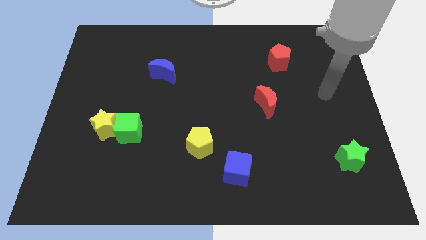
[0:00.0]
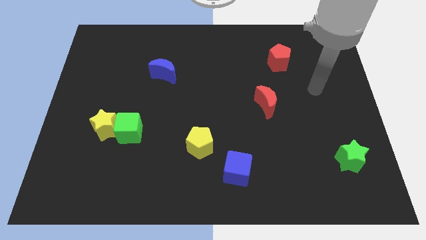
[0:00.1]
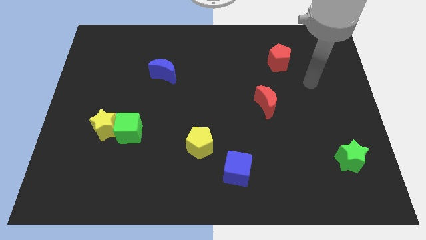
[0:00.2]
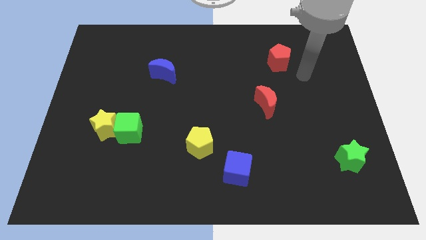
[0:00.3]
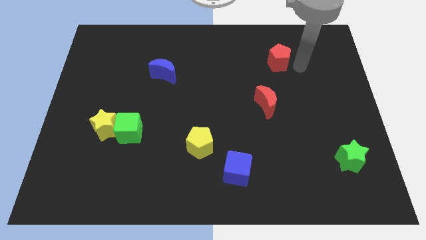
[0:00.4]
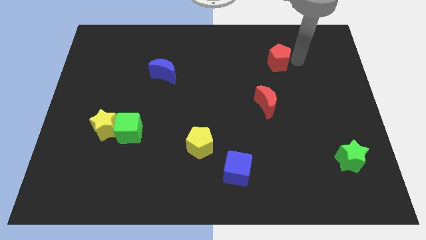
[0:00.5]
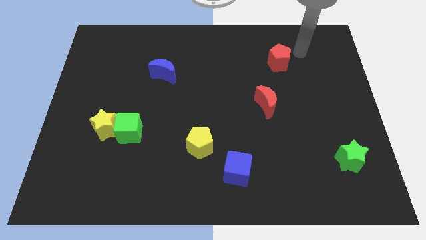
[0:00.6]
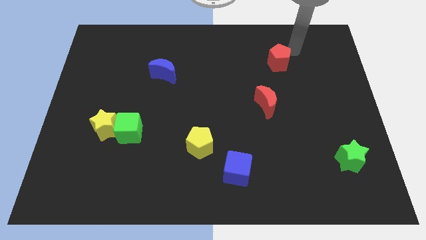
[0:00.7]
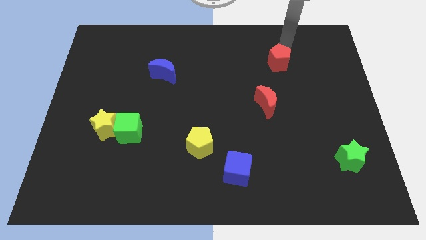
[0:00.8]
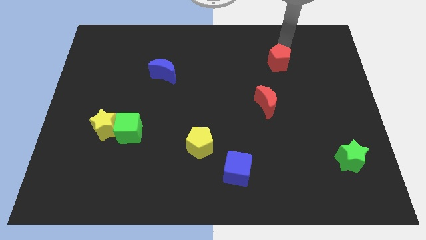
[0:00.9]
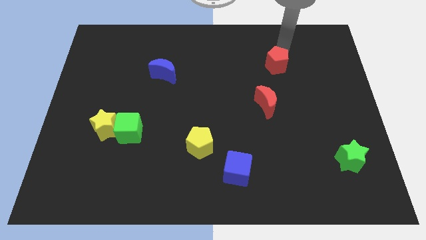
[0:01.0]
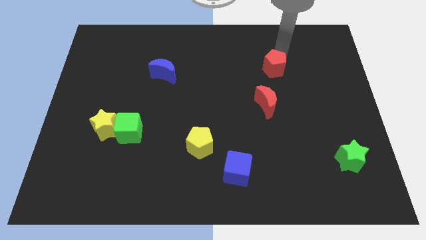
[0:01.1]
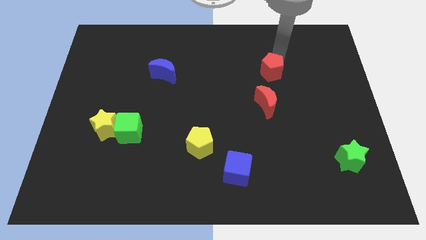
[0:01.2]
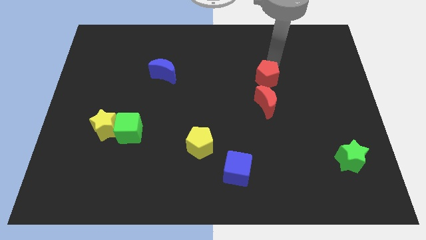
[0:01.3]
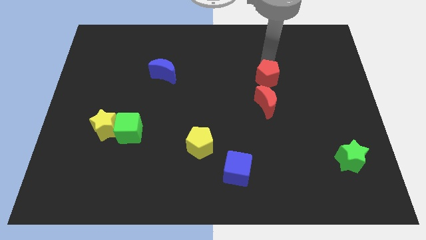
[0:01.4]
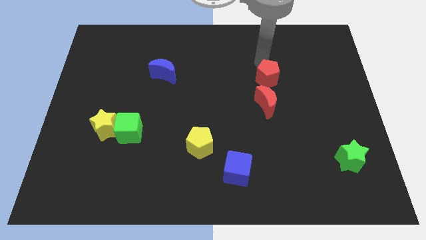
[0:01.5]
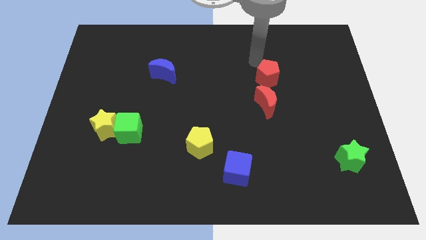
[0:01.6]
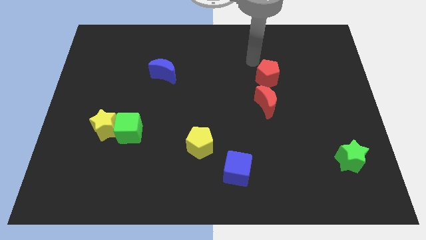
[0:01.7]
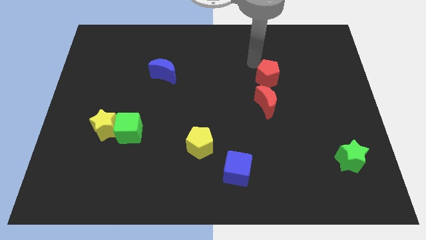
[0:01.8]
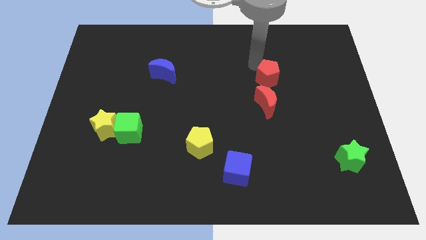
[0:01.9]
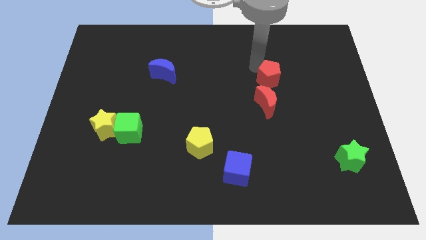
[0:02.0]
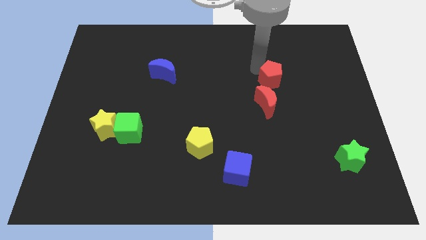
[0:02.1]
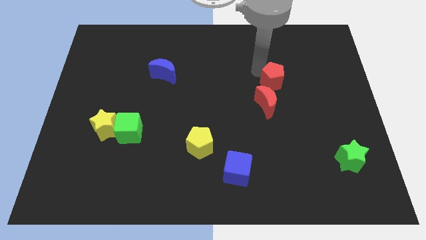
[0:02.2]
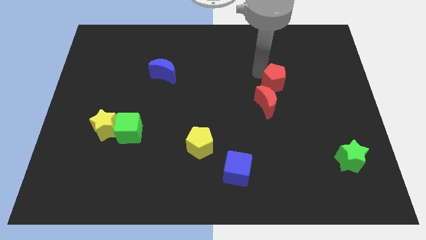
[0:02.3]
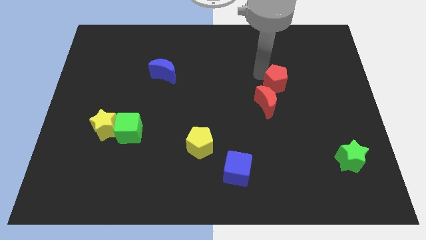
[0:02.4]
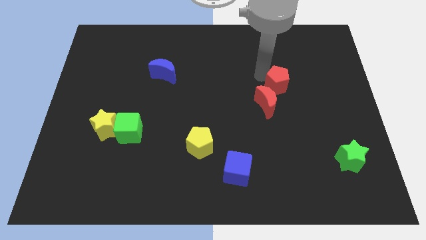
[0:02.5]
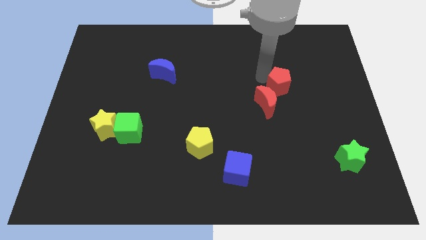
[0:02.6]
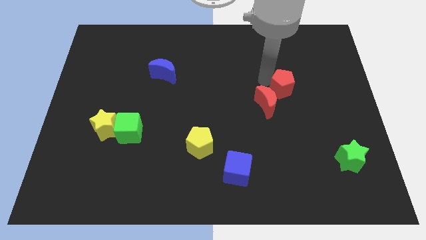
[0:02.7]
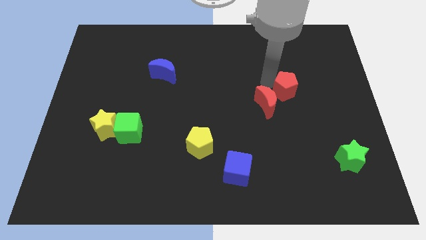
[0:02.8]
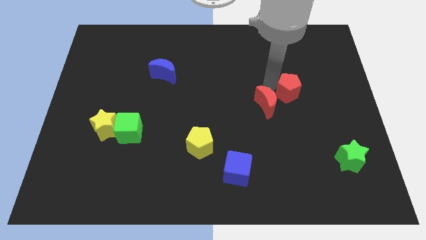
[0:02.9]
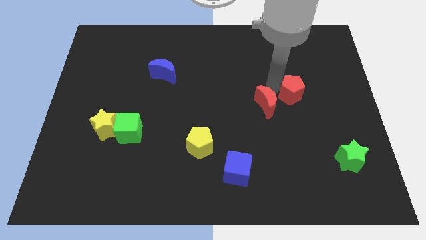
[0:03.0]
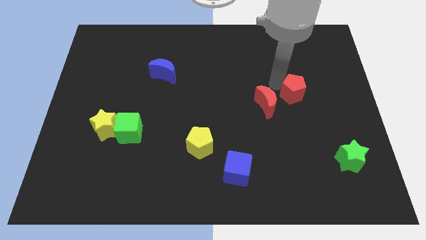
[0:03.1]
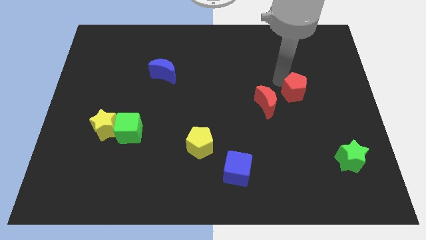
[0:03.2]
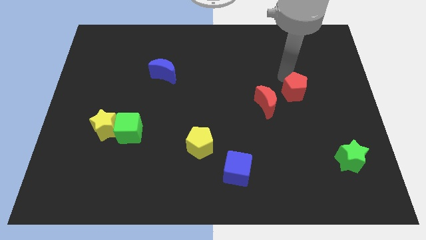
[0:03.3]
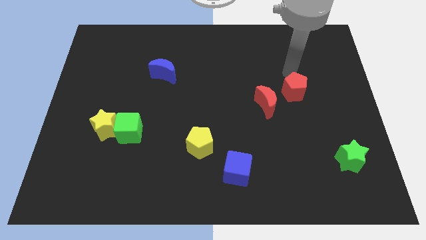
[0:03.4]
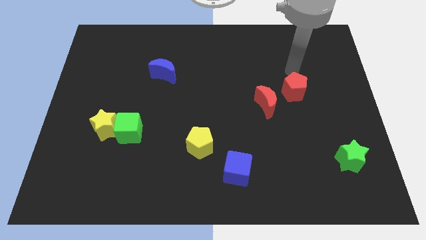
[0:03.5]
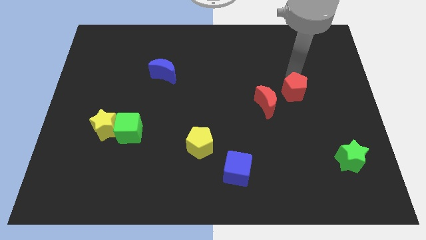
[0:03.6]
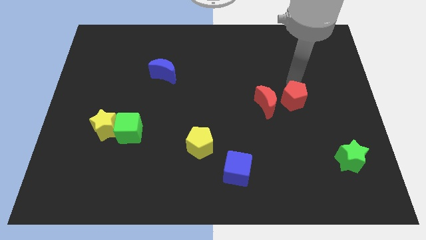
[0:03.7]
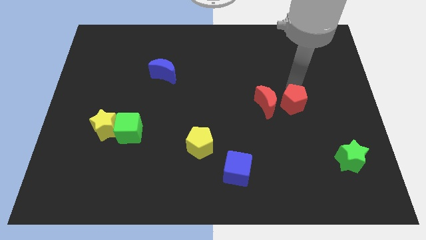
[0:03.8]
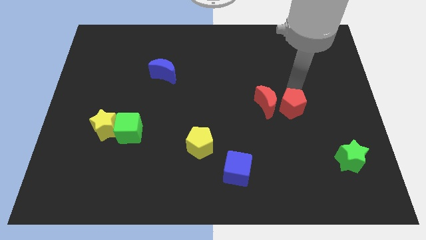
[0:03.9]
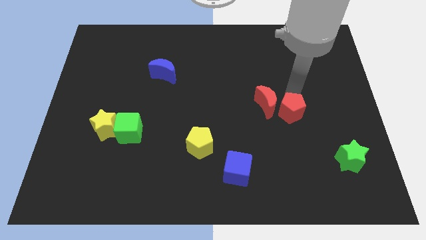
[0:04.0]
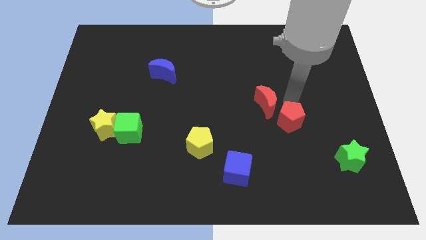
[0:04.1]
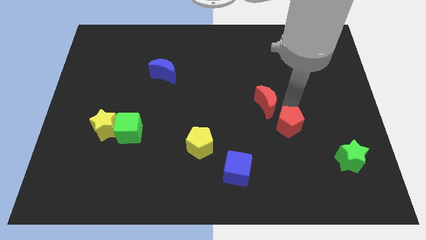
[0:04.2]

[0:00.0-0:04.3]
slide the red pentagon downwards

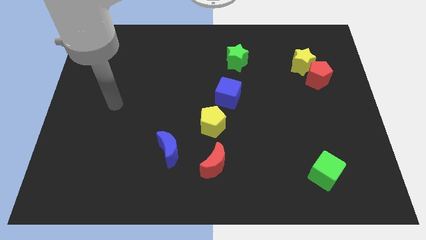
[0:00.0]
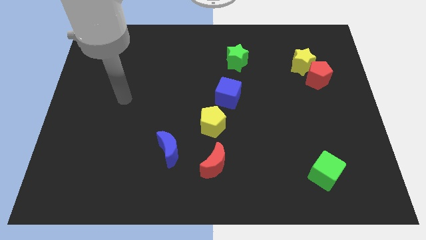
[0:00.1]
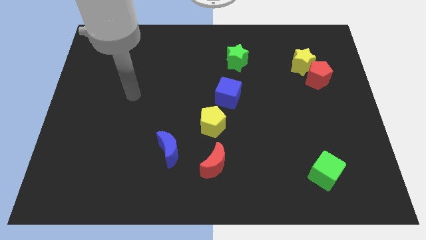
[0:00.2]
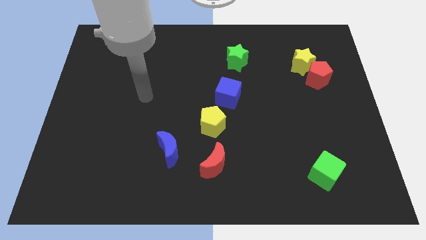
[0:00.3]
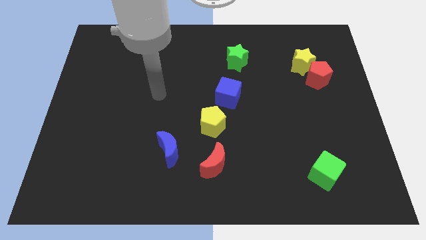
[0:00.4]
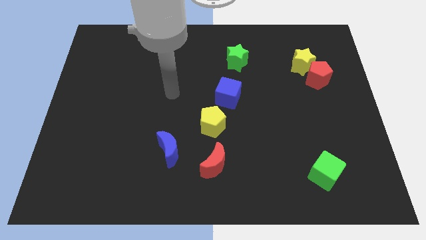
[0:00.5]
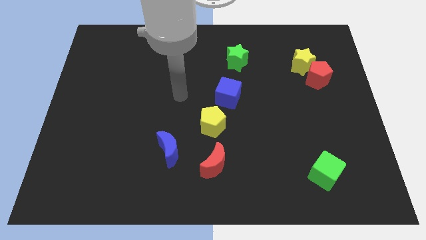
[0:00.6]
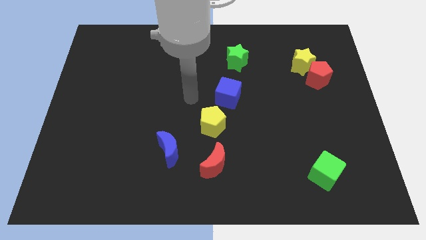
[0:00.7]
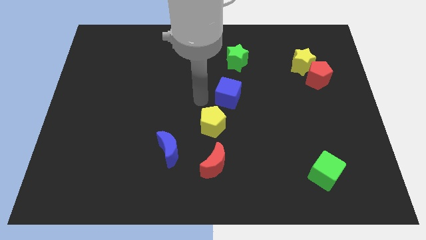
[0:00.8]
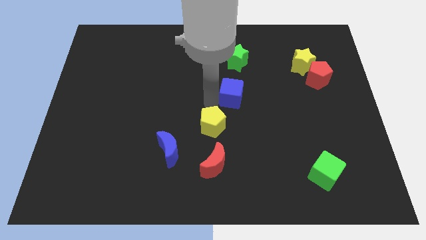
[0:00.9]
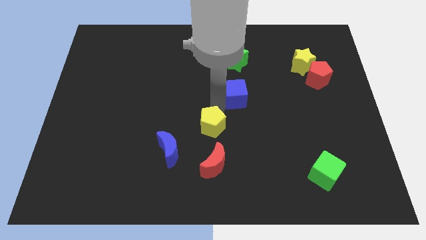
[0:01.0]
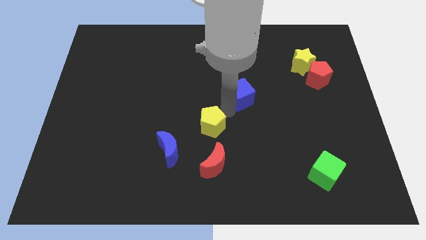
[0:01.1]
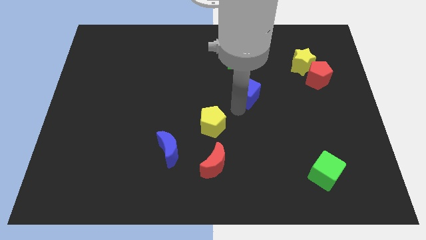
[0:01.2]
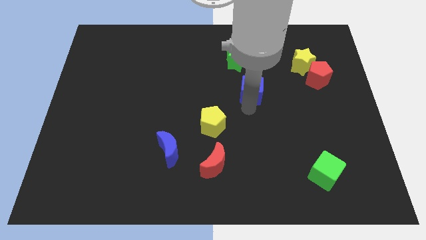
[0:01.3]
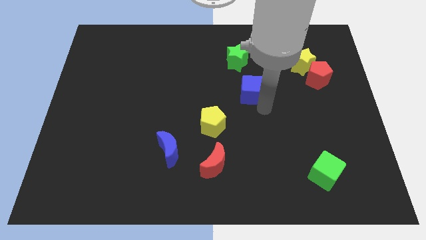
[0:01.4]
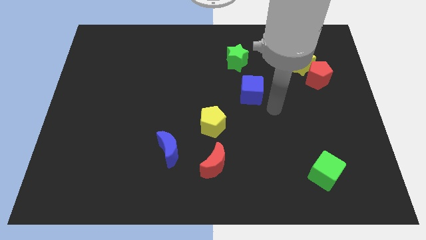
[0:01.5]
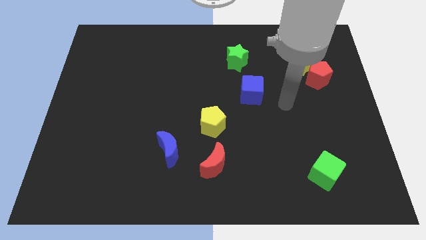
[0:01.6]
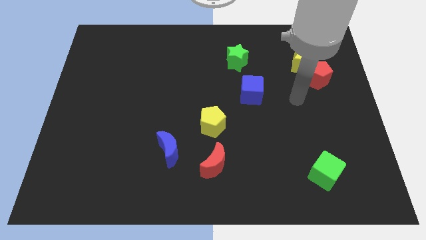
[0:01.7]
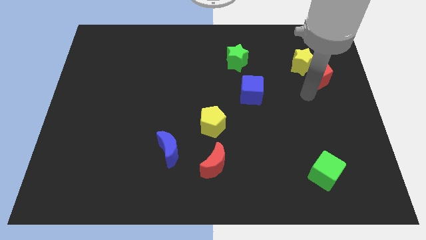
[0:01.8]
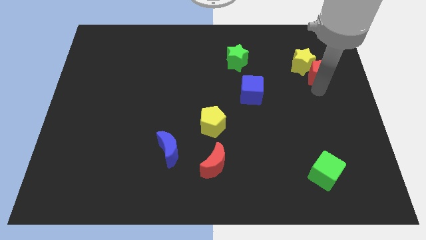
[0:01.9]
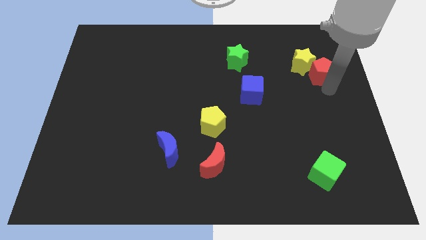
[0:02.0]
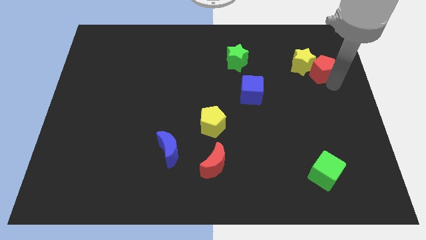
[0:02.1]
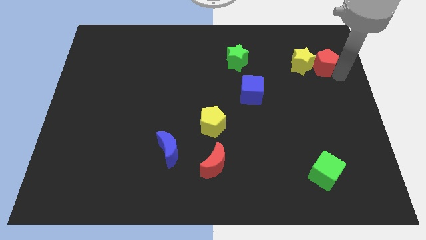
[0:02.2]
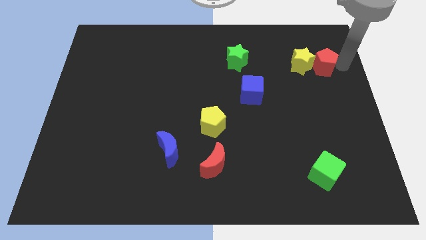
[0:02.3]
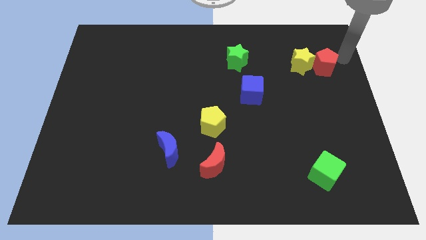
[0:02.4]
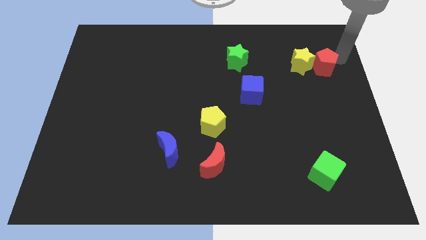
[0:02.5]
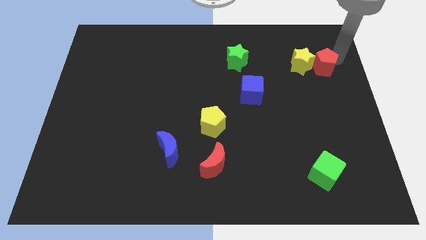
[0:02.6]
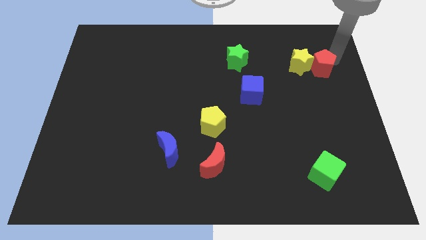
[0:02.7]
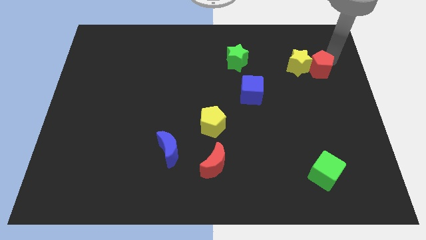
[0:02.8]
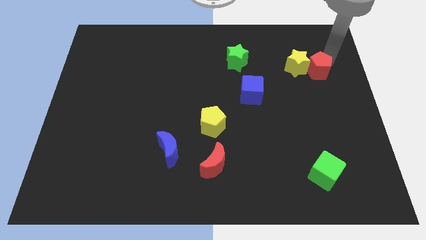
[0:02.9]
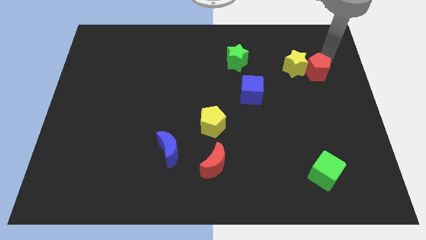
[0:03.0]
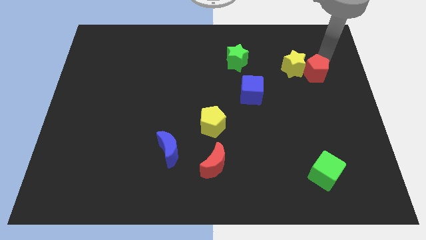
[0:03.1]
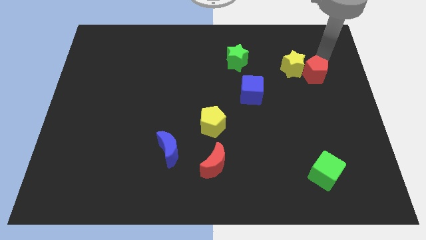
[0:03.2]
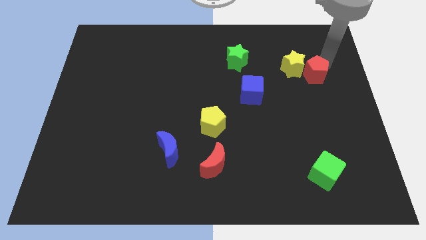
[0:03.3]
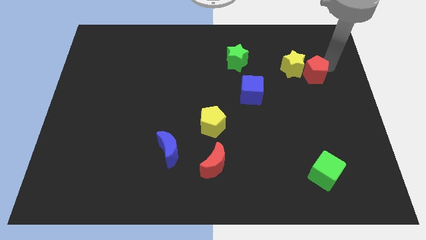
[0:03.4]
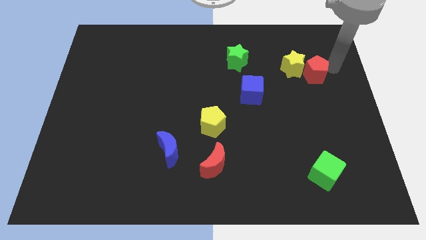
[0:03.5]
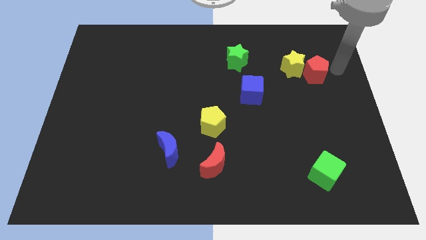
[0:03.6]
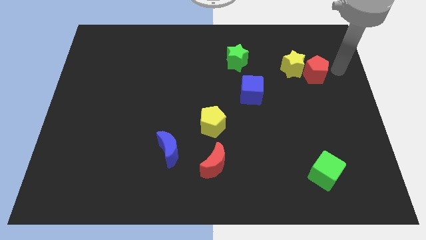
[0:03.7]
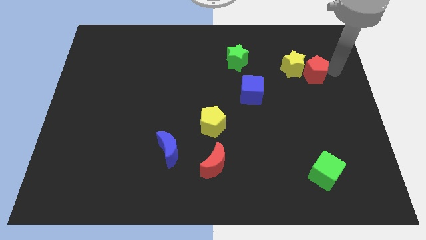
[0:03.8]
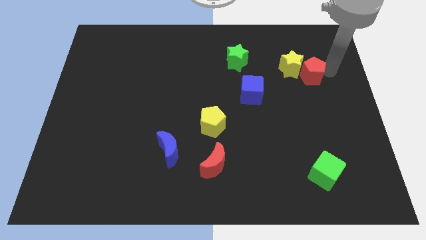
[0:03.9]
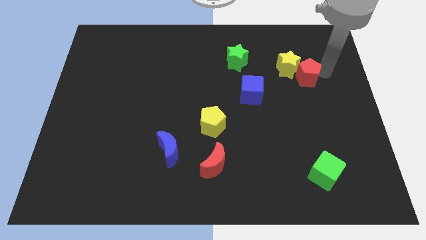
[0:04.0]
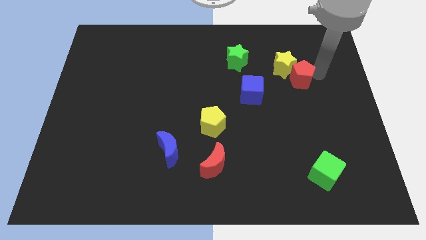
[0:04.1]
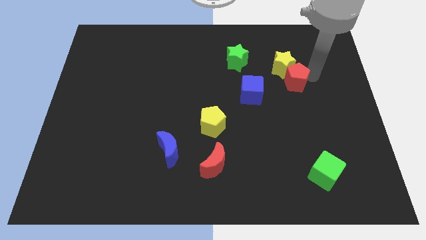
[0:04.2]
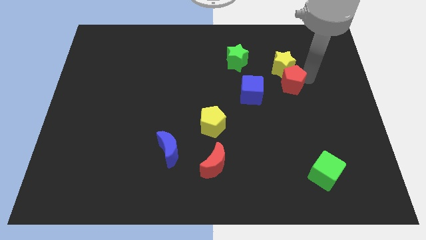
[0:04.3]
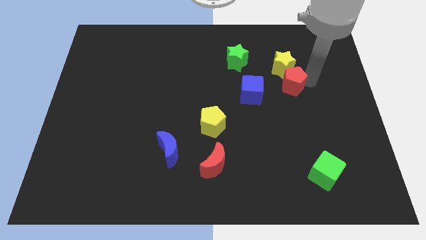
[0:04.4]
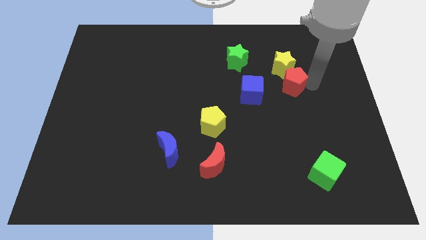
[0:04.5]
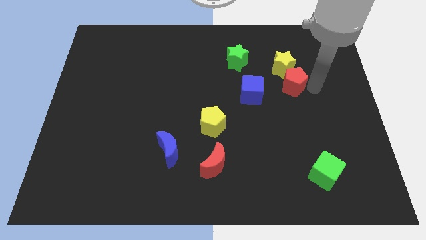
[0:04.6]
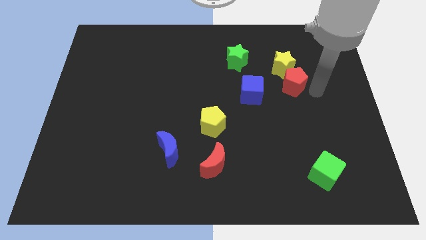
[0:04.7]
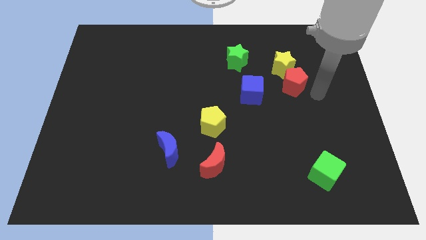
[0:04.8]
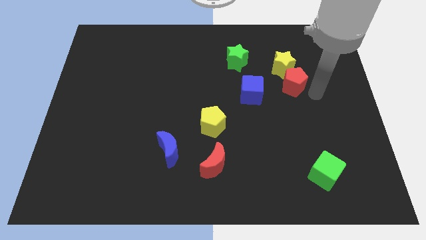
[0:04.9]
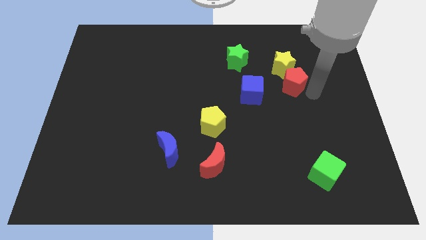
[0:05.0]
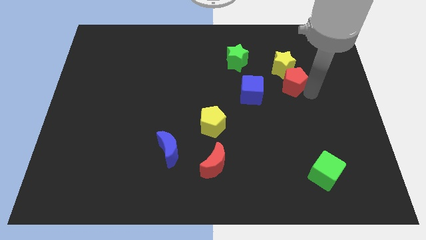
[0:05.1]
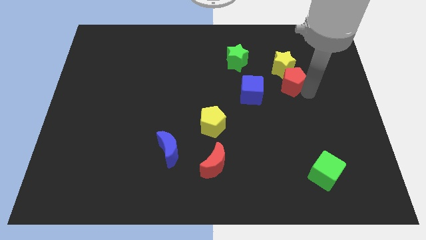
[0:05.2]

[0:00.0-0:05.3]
push the red pentagon to the left slightly
